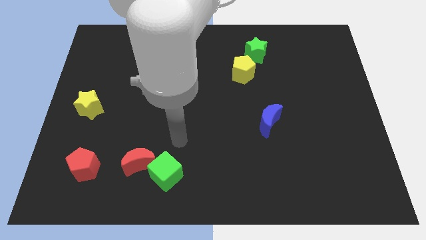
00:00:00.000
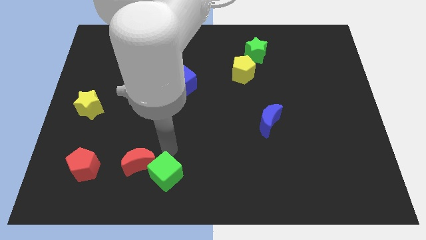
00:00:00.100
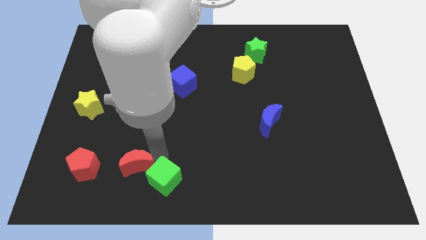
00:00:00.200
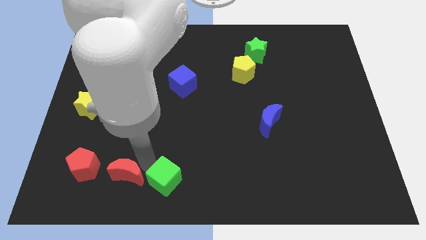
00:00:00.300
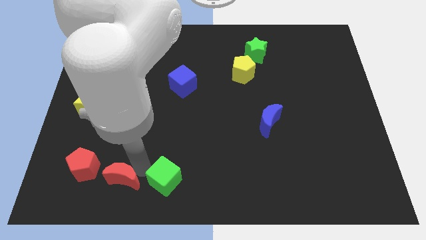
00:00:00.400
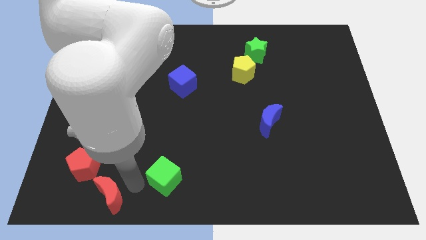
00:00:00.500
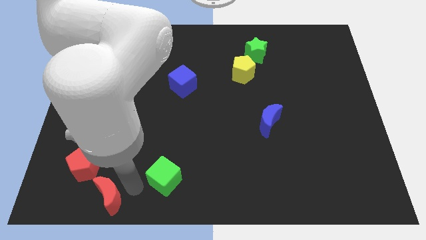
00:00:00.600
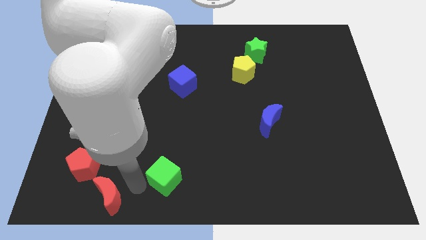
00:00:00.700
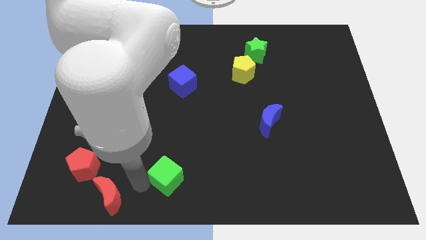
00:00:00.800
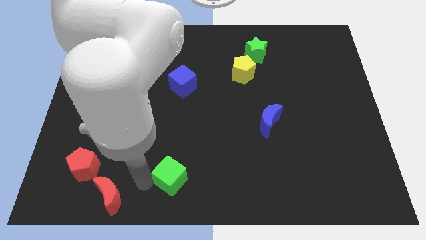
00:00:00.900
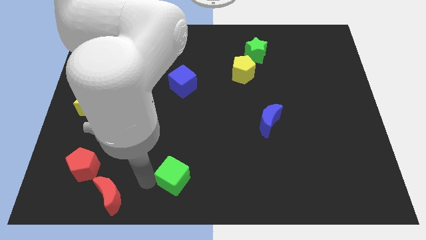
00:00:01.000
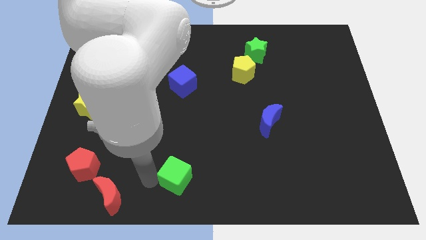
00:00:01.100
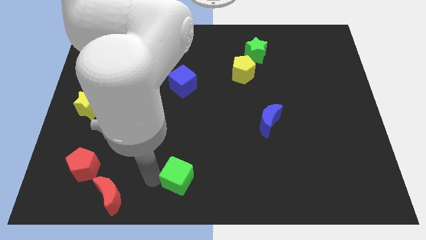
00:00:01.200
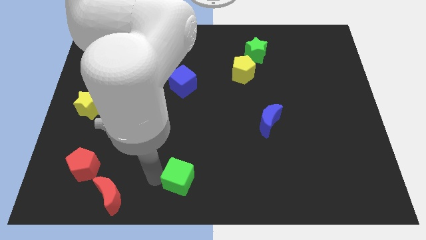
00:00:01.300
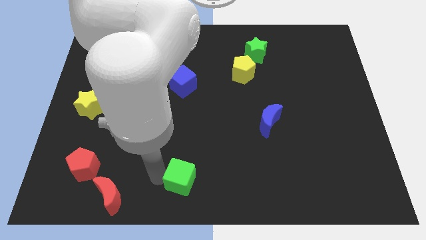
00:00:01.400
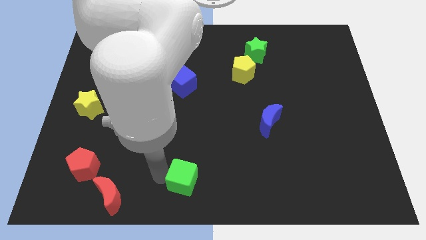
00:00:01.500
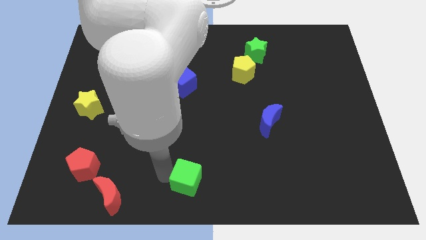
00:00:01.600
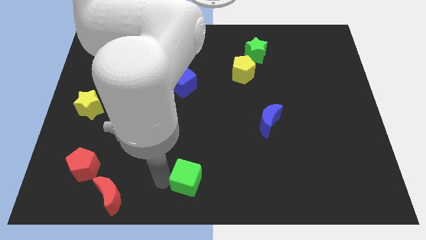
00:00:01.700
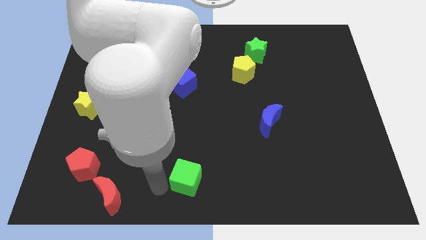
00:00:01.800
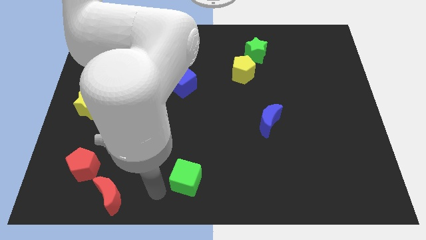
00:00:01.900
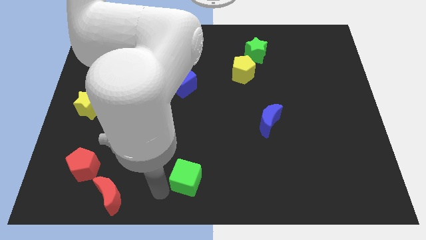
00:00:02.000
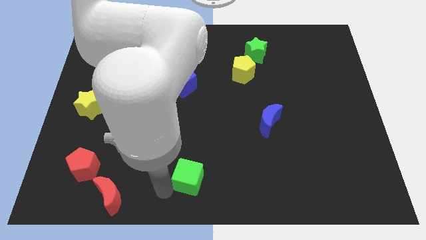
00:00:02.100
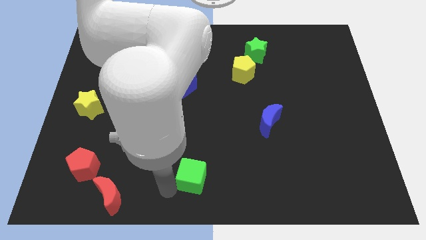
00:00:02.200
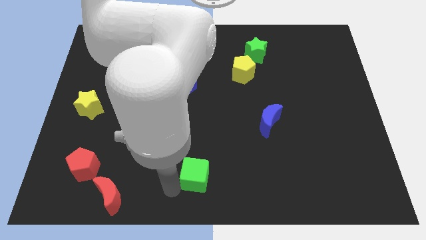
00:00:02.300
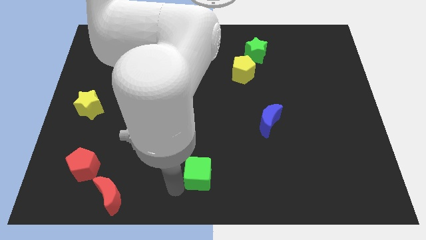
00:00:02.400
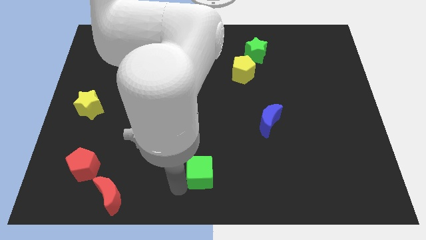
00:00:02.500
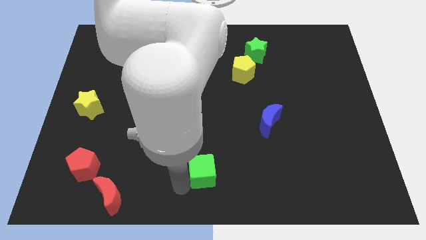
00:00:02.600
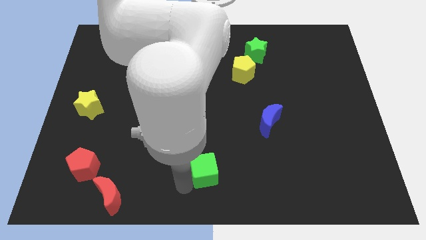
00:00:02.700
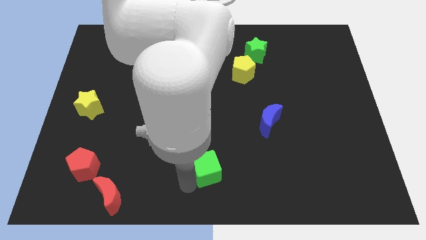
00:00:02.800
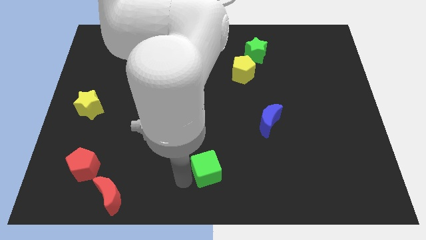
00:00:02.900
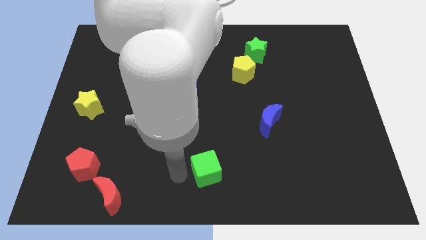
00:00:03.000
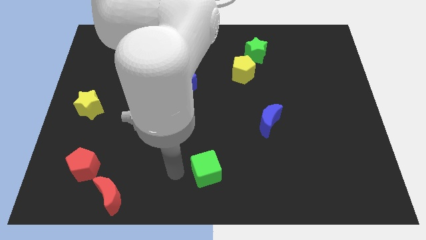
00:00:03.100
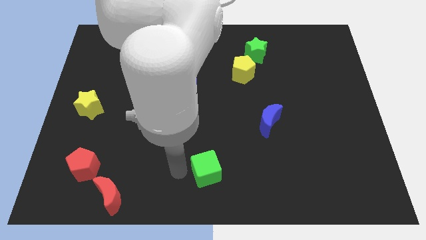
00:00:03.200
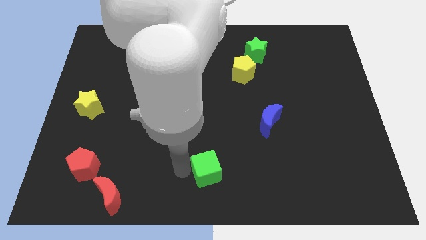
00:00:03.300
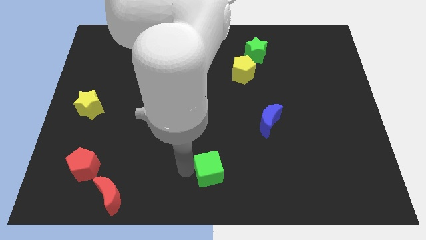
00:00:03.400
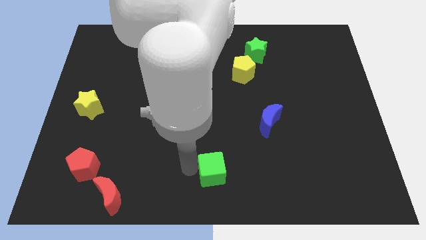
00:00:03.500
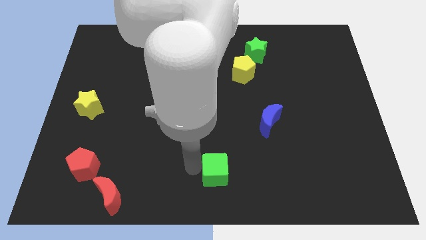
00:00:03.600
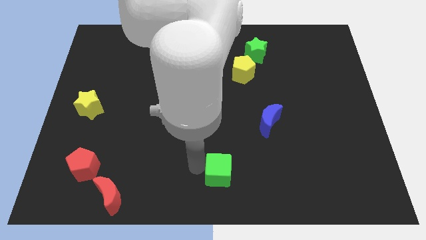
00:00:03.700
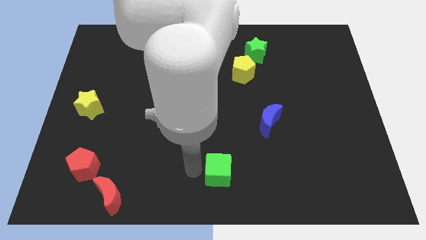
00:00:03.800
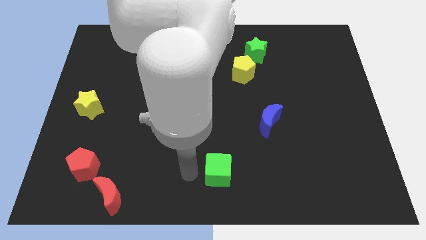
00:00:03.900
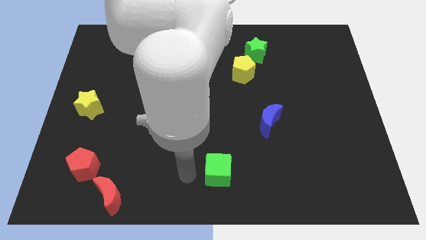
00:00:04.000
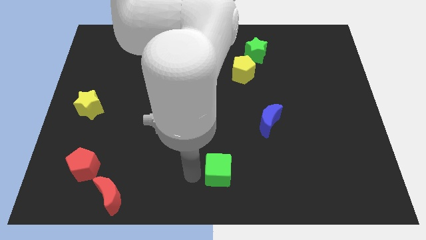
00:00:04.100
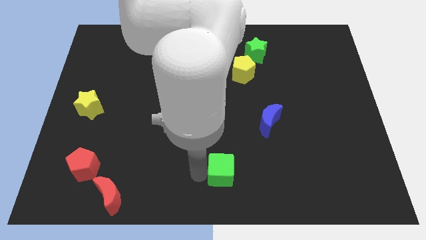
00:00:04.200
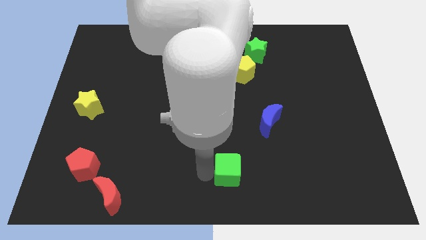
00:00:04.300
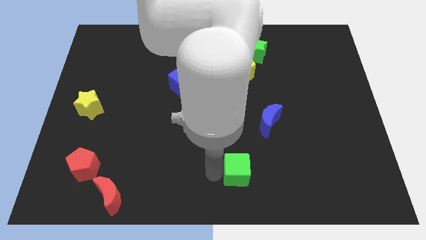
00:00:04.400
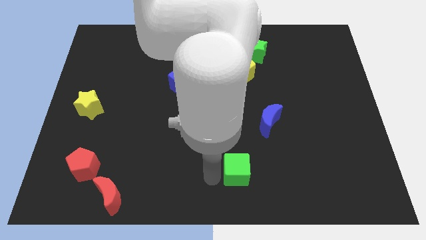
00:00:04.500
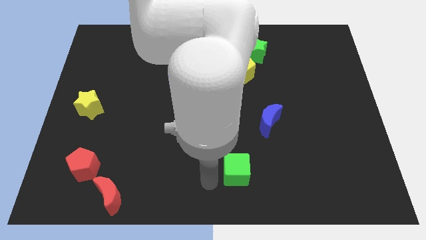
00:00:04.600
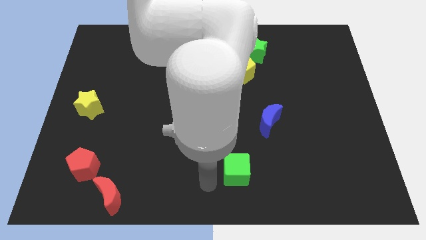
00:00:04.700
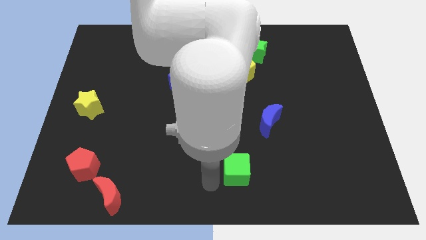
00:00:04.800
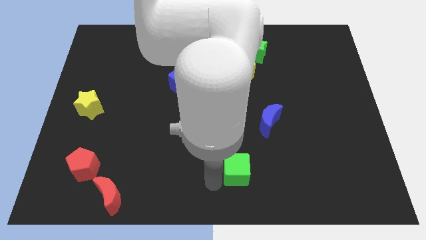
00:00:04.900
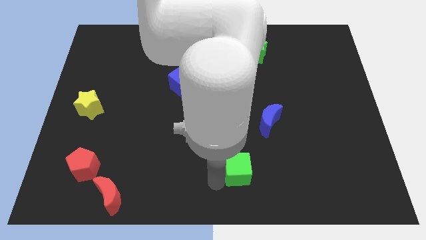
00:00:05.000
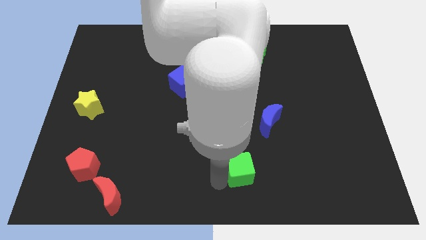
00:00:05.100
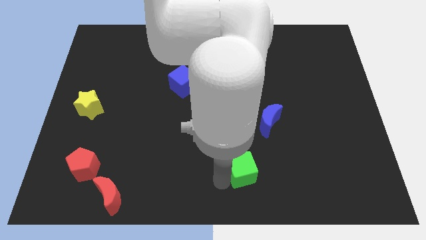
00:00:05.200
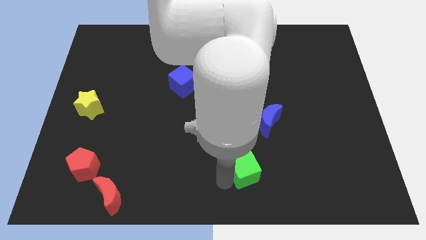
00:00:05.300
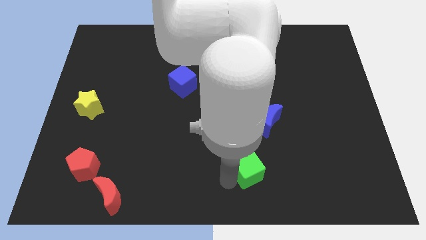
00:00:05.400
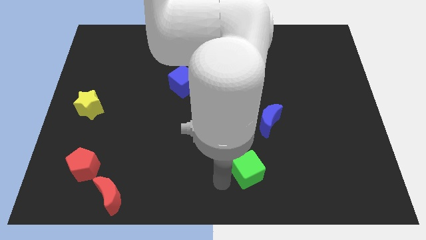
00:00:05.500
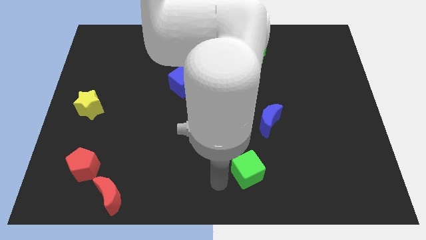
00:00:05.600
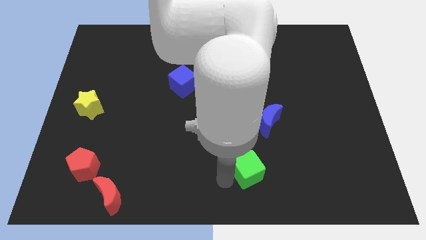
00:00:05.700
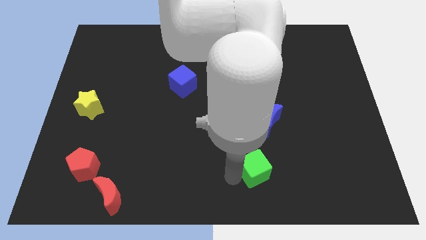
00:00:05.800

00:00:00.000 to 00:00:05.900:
slide the green cube below the blue moon

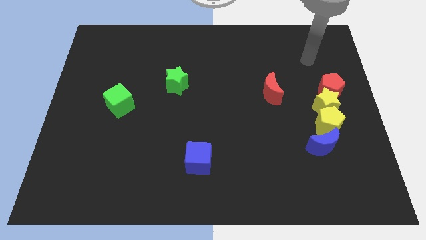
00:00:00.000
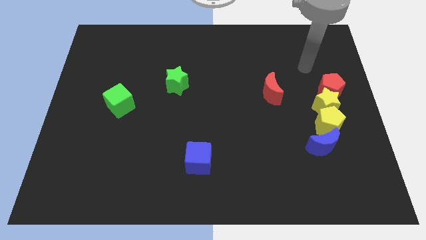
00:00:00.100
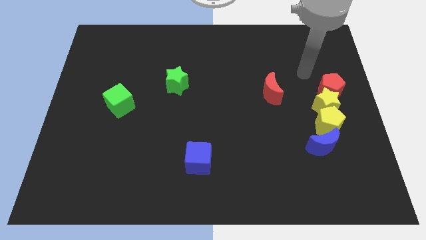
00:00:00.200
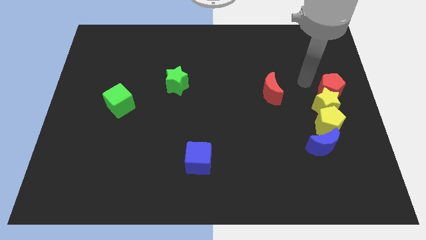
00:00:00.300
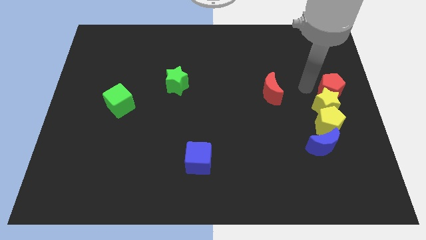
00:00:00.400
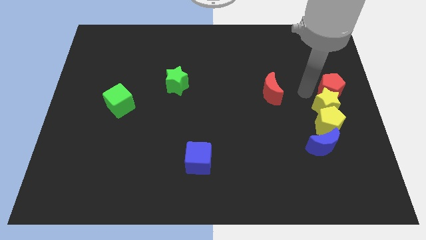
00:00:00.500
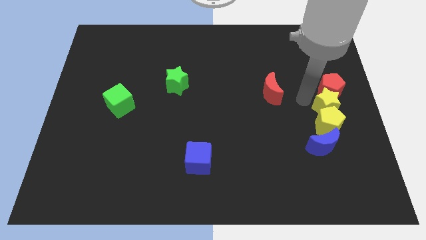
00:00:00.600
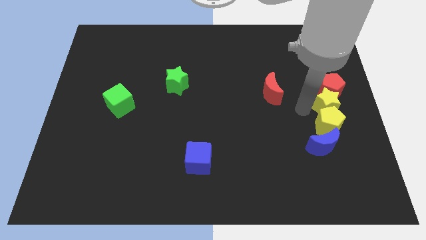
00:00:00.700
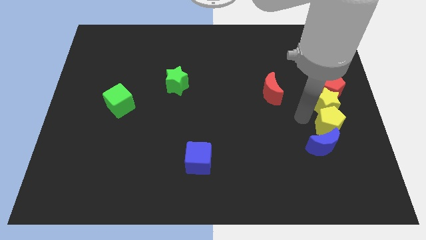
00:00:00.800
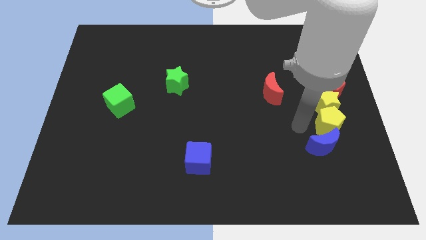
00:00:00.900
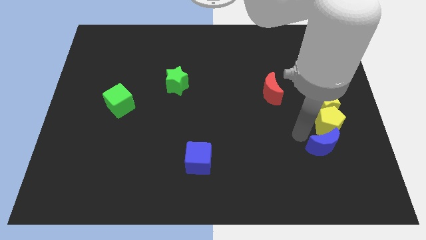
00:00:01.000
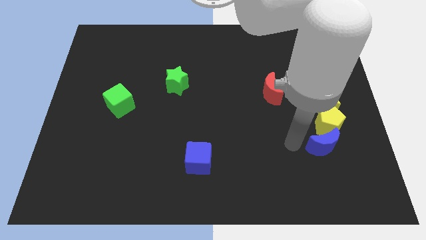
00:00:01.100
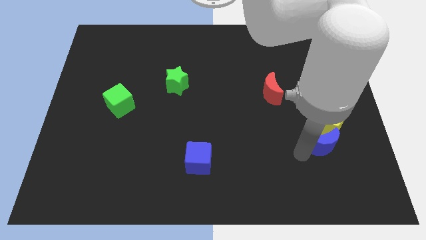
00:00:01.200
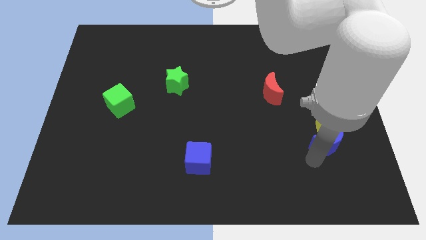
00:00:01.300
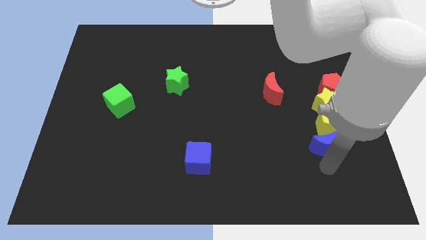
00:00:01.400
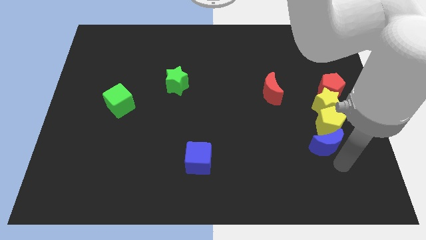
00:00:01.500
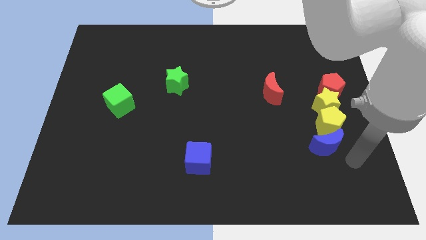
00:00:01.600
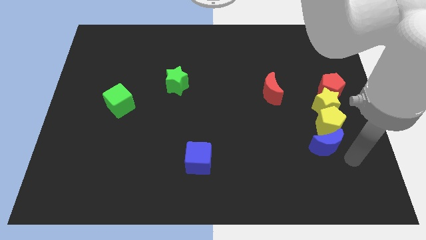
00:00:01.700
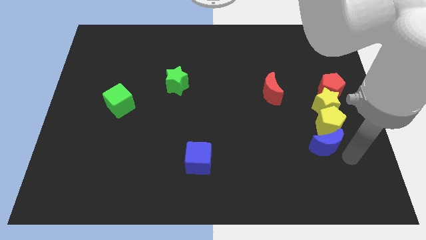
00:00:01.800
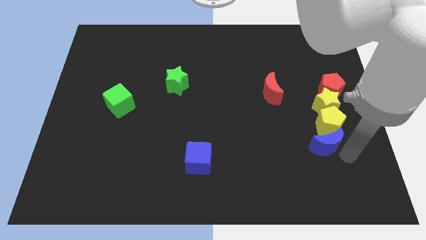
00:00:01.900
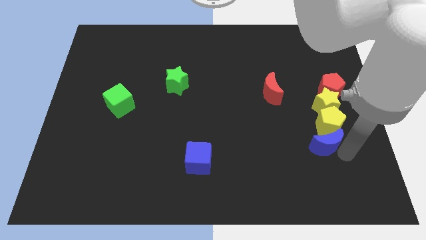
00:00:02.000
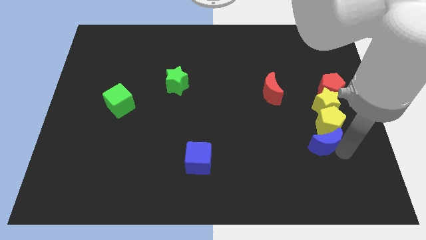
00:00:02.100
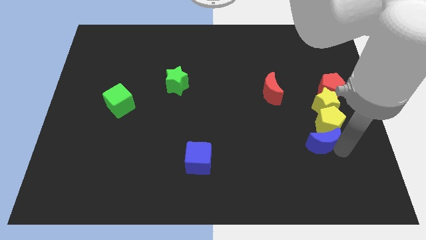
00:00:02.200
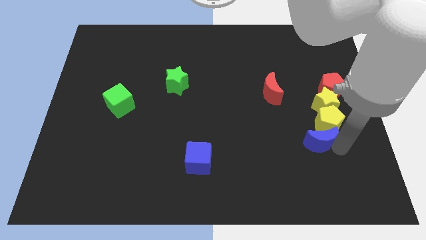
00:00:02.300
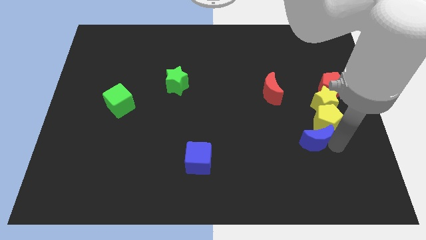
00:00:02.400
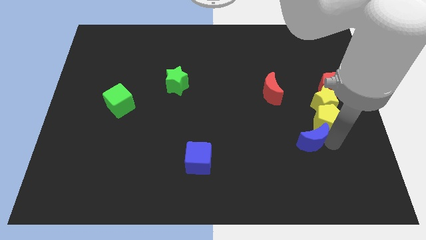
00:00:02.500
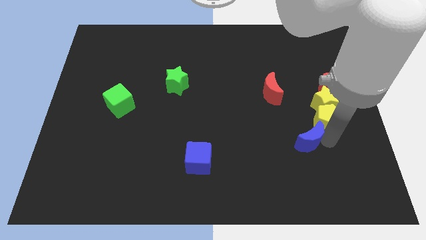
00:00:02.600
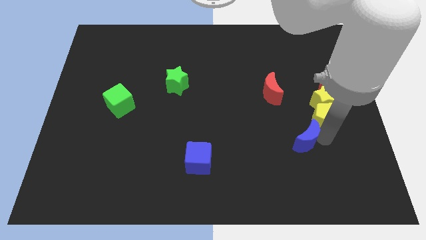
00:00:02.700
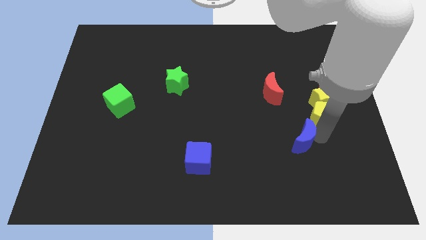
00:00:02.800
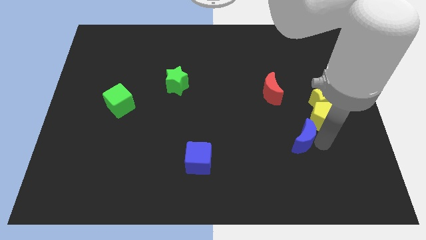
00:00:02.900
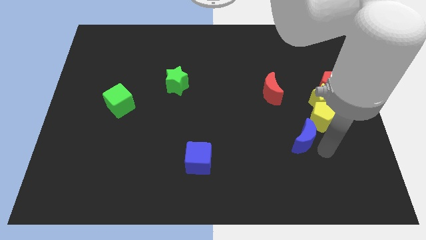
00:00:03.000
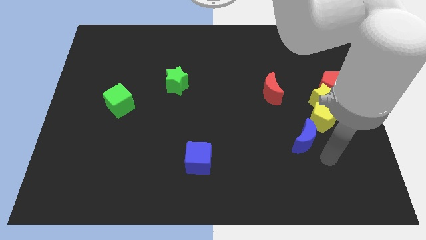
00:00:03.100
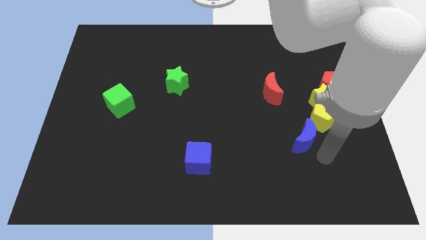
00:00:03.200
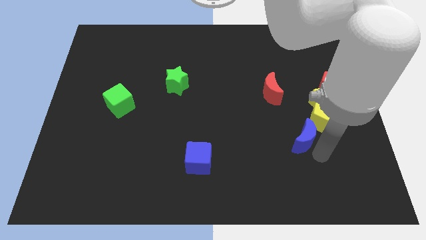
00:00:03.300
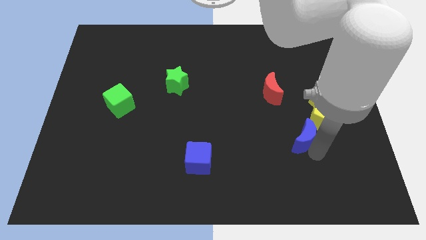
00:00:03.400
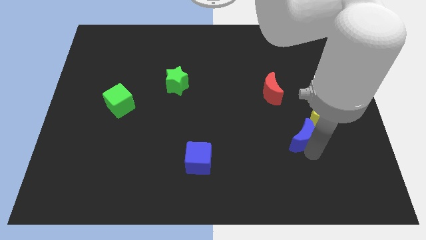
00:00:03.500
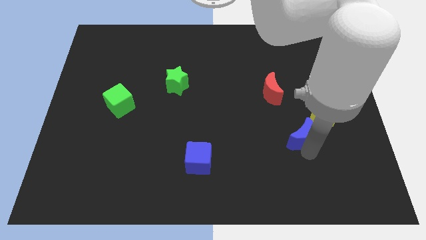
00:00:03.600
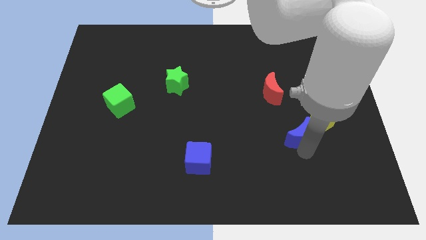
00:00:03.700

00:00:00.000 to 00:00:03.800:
move the blue moon to the left of the yellow pentagon
